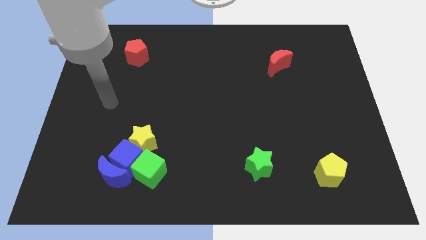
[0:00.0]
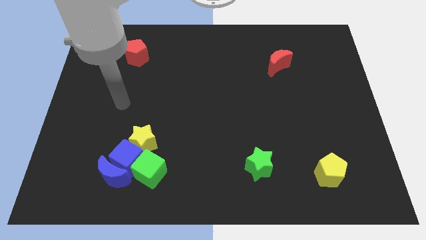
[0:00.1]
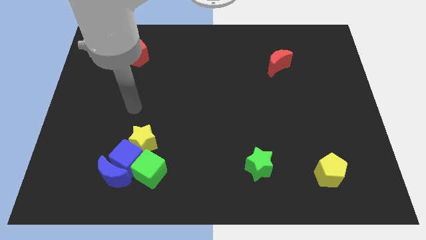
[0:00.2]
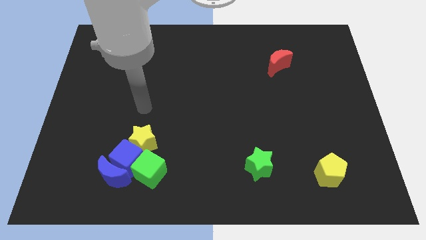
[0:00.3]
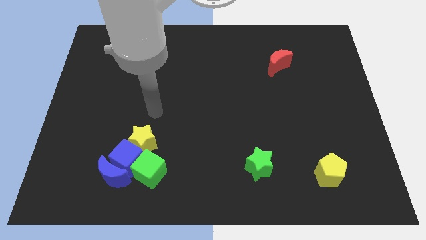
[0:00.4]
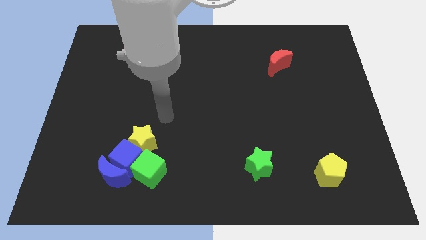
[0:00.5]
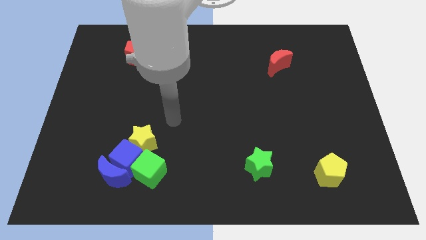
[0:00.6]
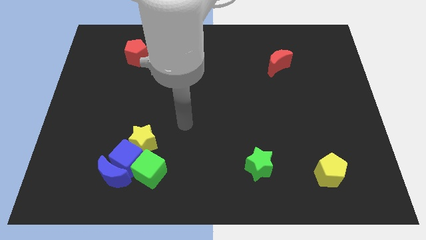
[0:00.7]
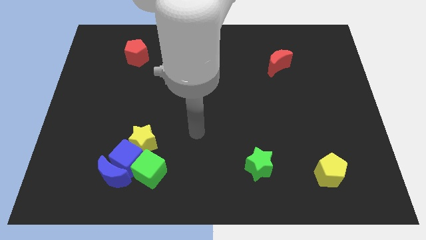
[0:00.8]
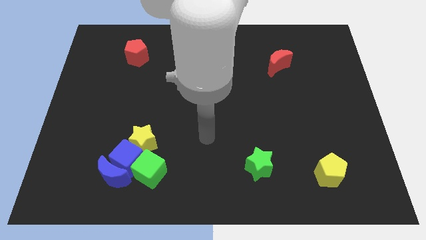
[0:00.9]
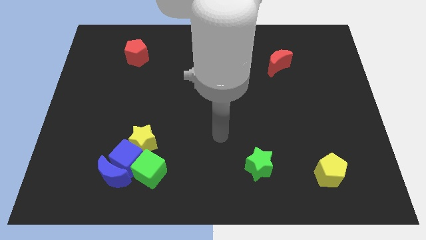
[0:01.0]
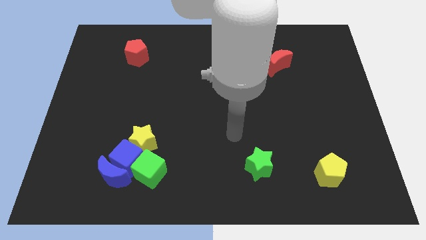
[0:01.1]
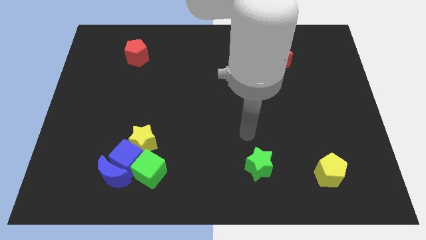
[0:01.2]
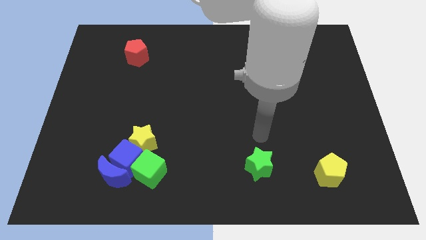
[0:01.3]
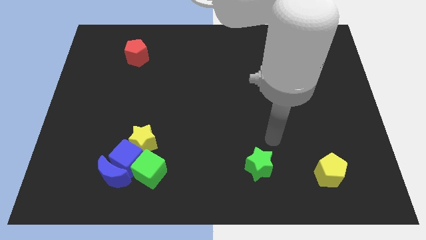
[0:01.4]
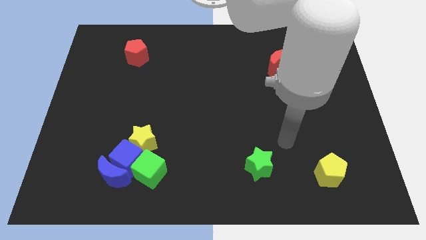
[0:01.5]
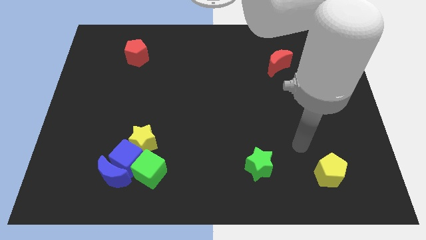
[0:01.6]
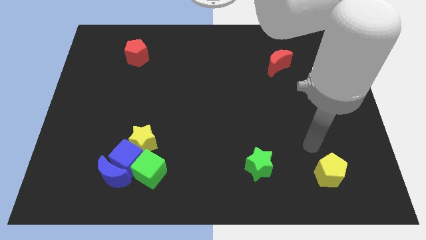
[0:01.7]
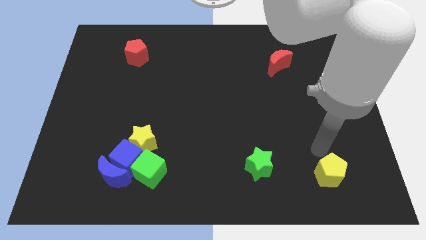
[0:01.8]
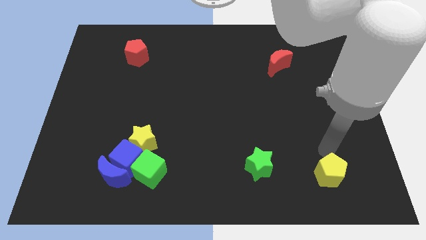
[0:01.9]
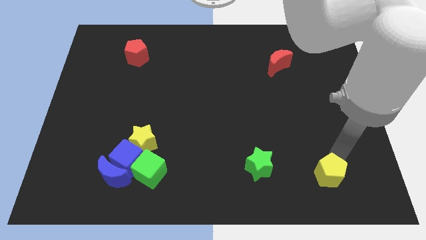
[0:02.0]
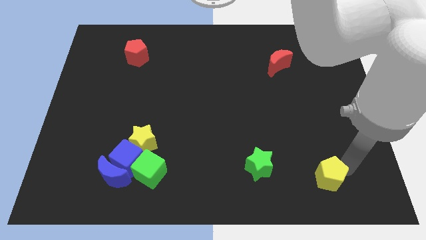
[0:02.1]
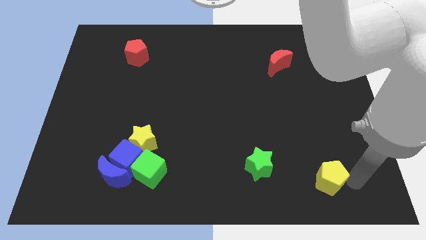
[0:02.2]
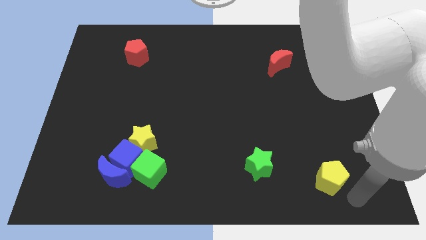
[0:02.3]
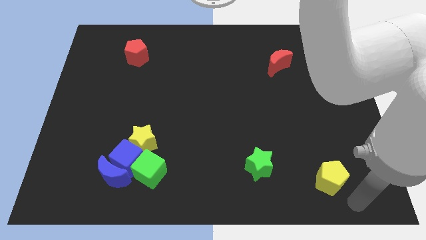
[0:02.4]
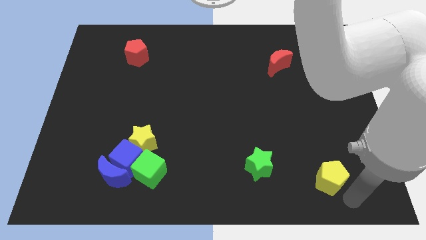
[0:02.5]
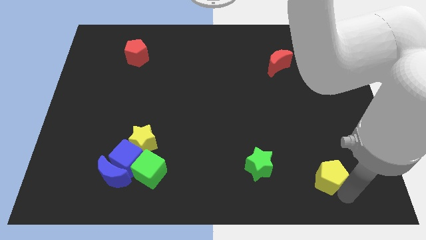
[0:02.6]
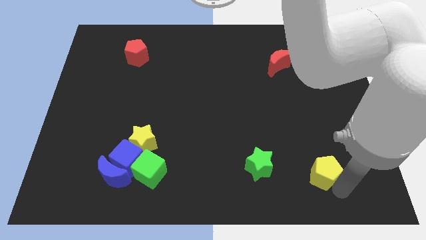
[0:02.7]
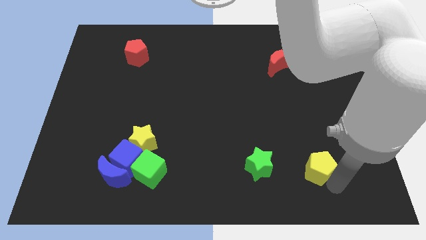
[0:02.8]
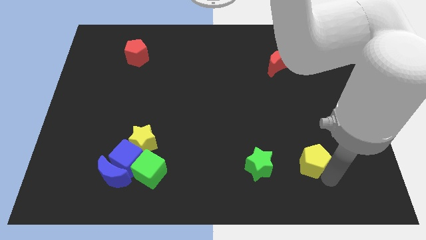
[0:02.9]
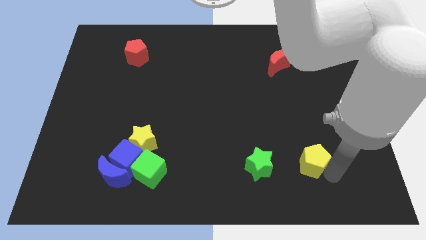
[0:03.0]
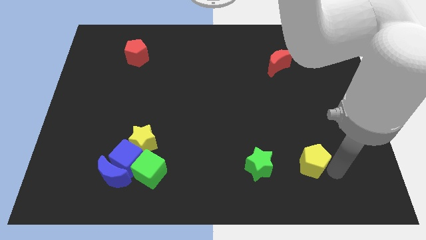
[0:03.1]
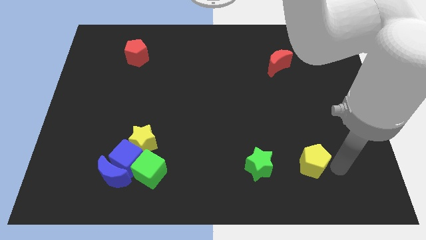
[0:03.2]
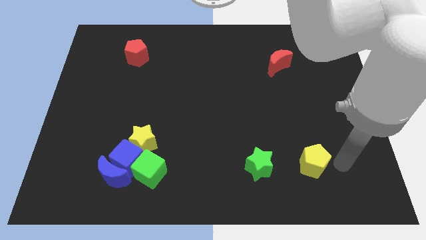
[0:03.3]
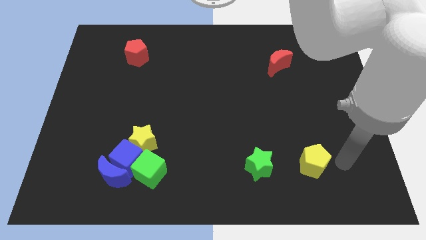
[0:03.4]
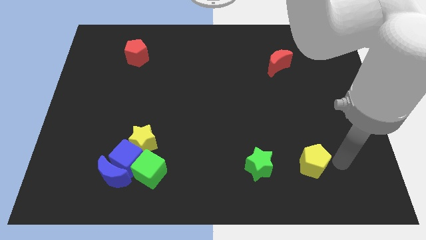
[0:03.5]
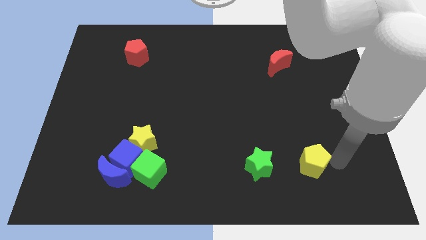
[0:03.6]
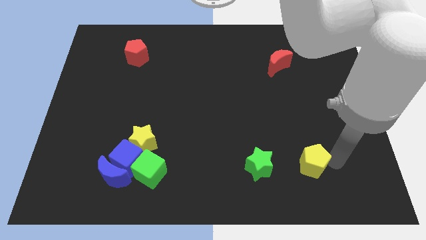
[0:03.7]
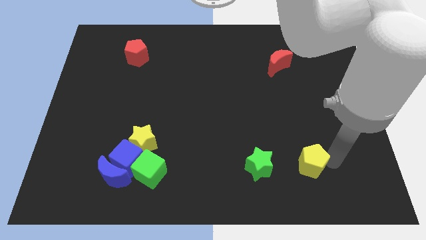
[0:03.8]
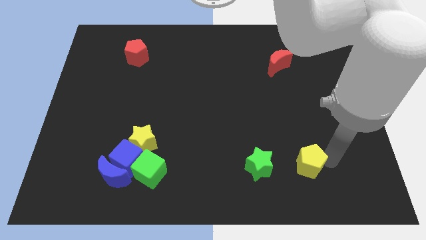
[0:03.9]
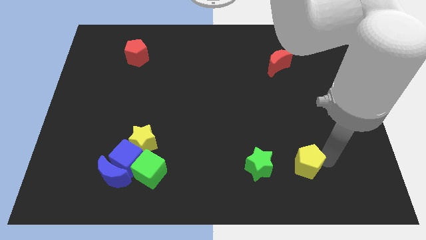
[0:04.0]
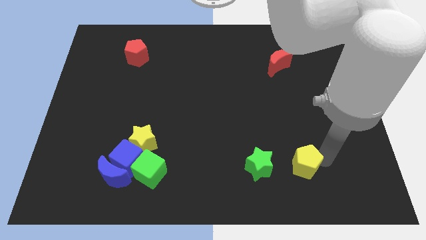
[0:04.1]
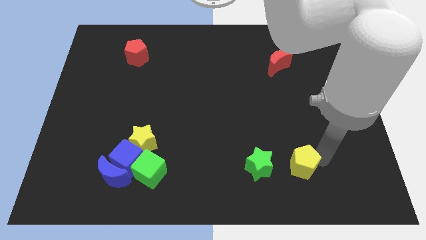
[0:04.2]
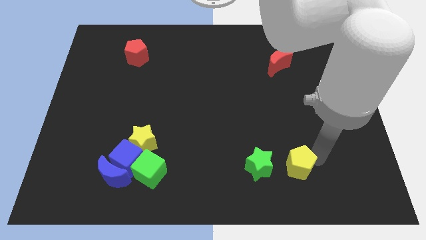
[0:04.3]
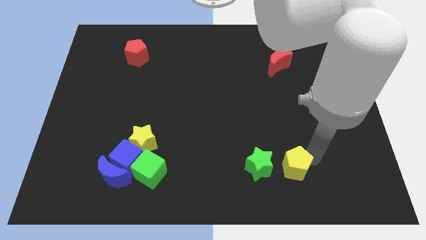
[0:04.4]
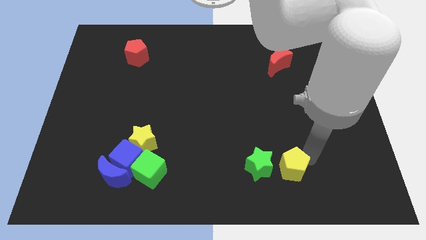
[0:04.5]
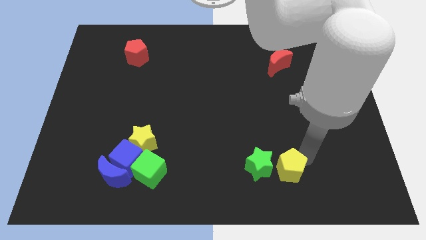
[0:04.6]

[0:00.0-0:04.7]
move the yellow pentagon to the green star

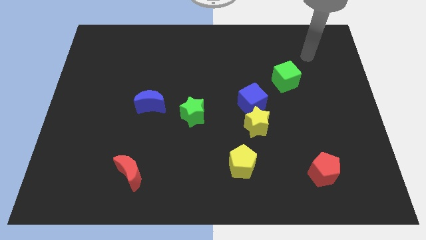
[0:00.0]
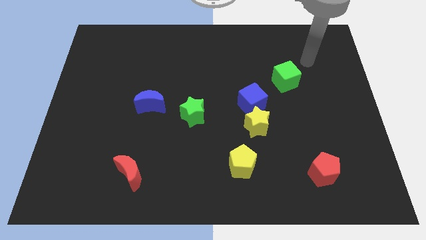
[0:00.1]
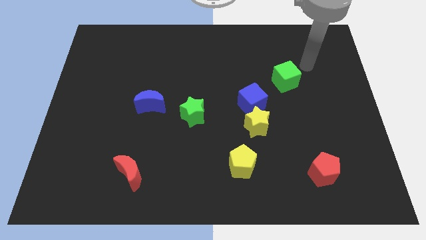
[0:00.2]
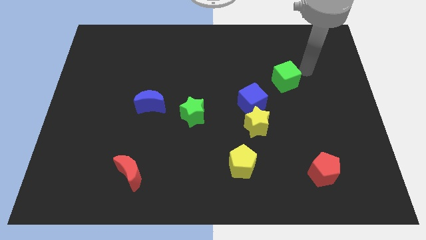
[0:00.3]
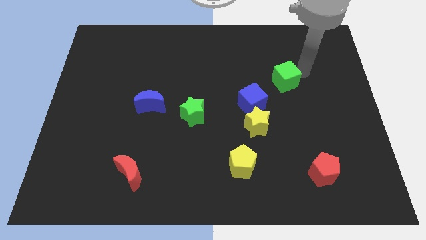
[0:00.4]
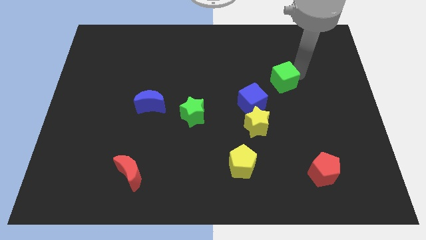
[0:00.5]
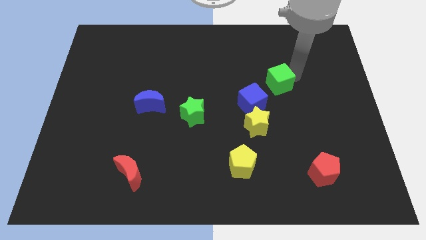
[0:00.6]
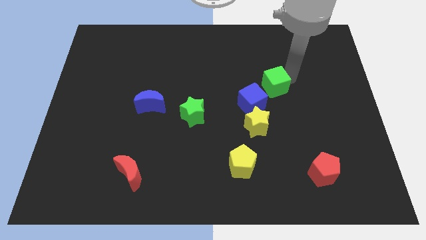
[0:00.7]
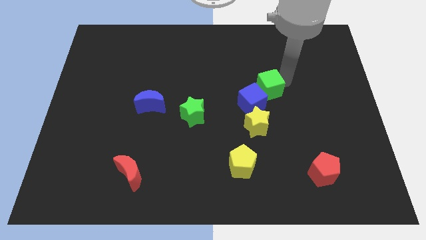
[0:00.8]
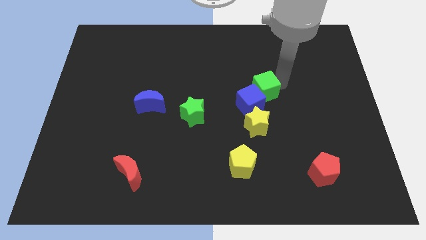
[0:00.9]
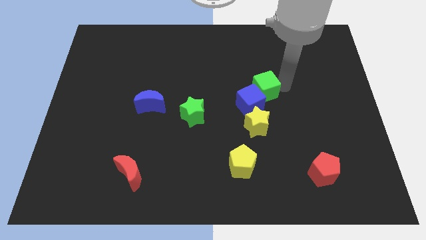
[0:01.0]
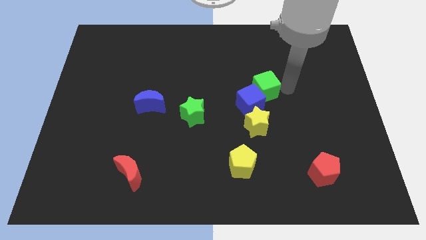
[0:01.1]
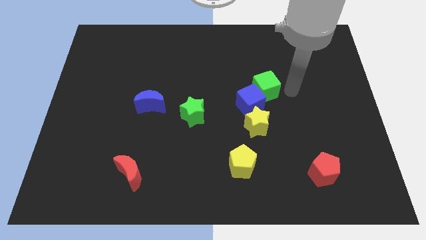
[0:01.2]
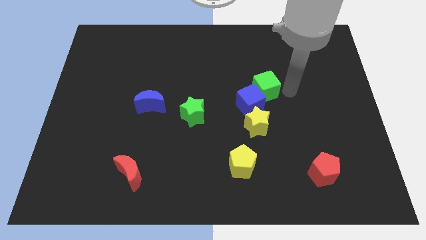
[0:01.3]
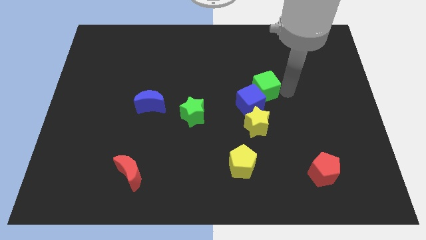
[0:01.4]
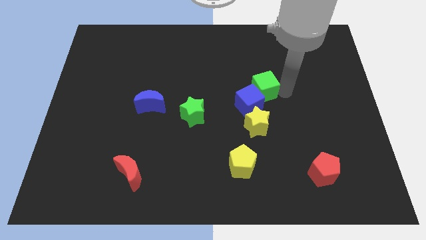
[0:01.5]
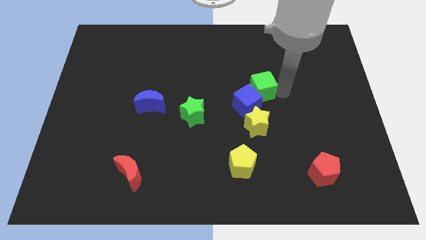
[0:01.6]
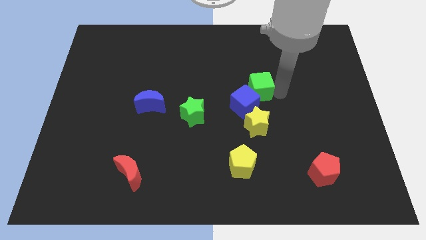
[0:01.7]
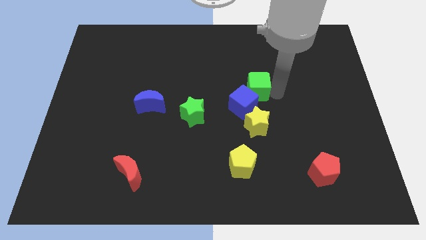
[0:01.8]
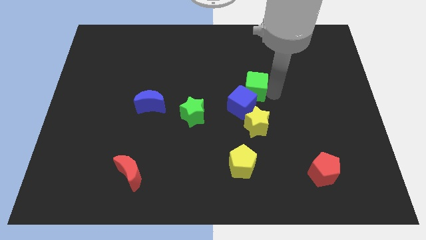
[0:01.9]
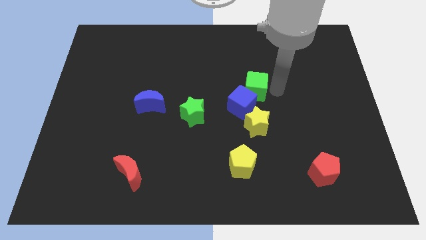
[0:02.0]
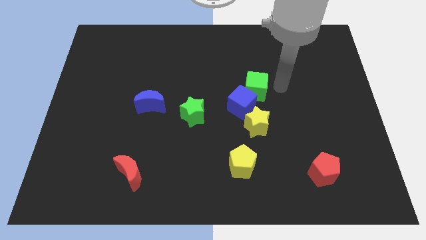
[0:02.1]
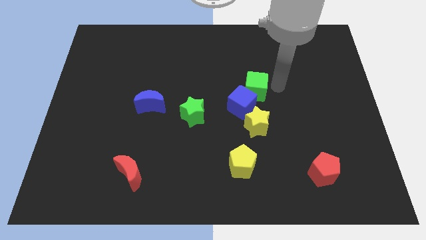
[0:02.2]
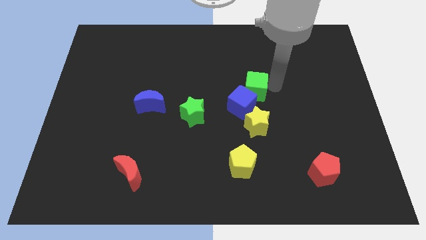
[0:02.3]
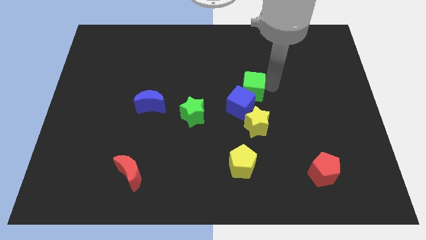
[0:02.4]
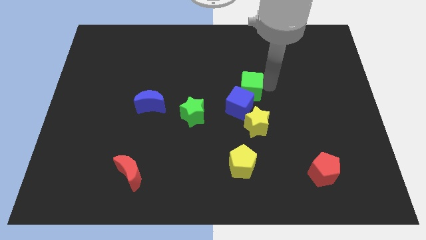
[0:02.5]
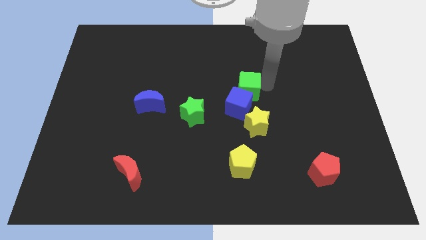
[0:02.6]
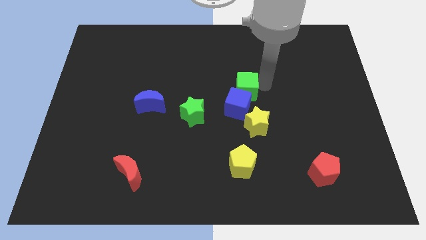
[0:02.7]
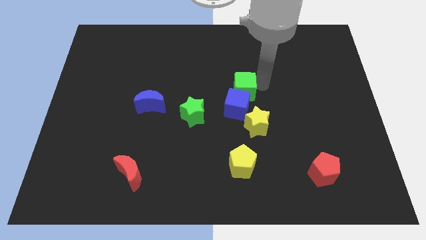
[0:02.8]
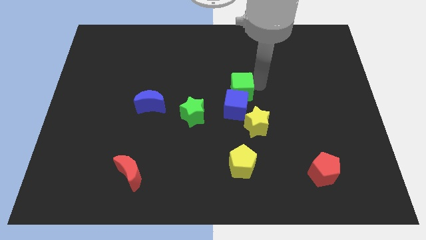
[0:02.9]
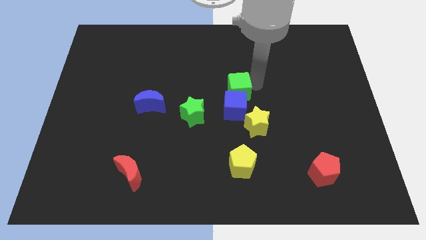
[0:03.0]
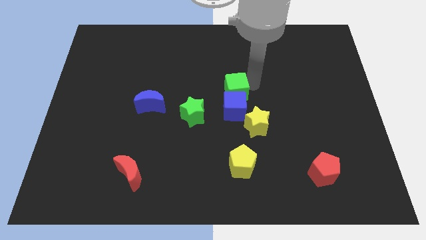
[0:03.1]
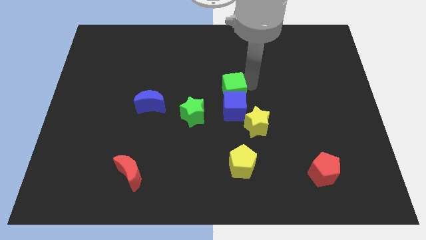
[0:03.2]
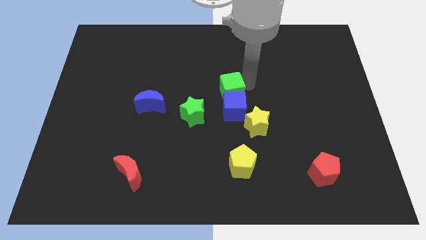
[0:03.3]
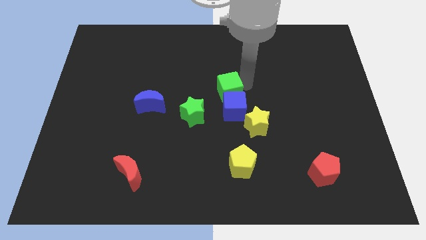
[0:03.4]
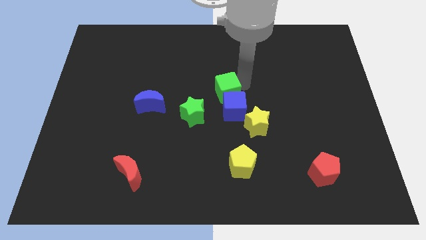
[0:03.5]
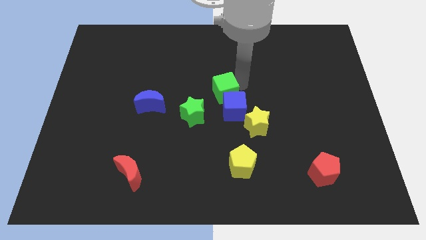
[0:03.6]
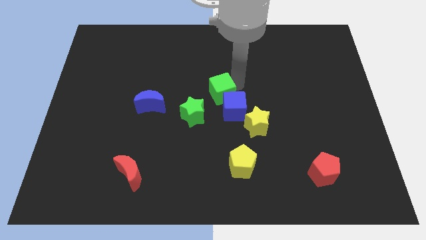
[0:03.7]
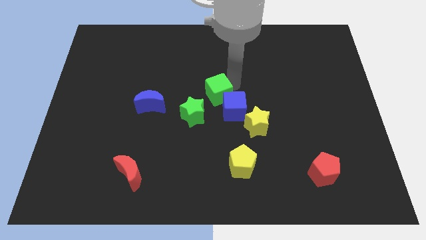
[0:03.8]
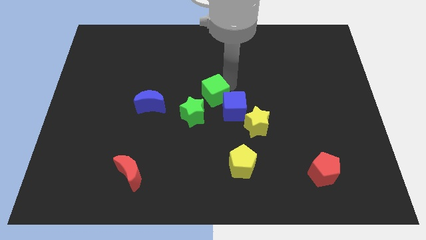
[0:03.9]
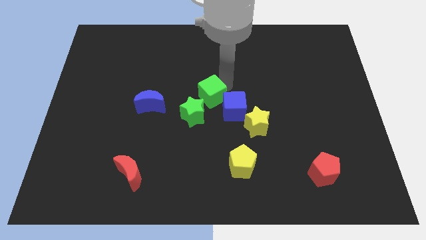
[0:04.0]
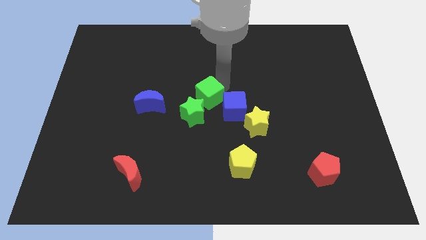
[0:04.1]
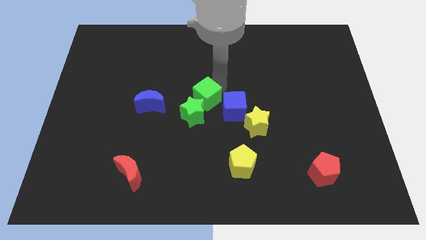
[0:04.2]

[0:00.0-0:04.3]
slide the green cube close to the green star
